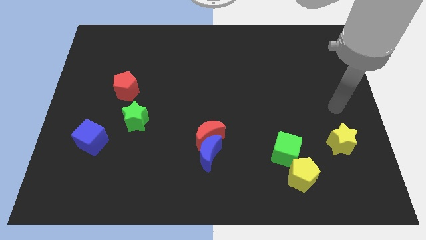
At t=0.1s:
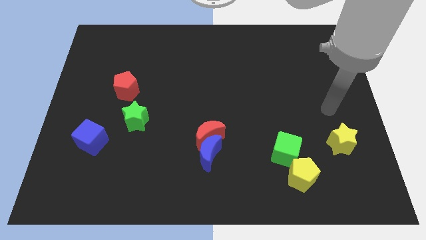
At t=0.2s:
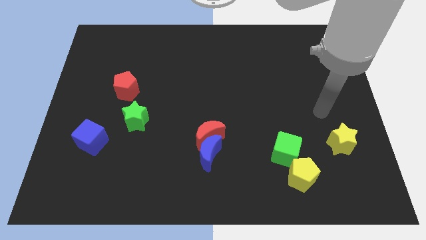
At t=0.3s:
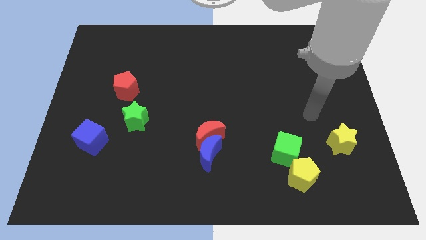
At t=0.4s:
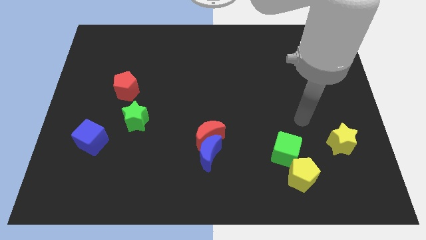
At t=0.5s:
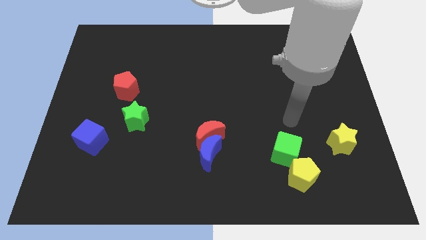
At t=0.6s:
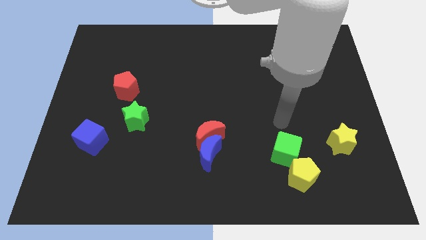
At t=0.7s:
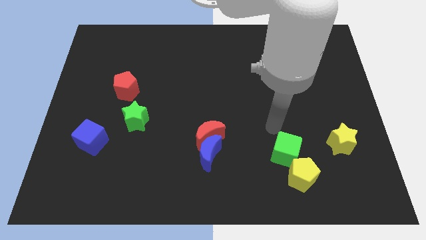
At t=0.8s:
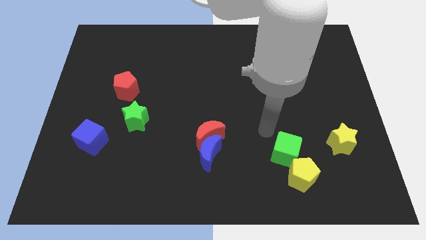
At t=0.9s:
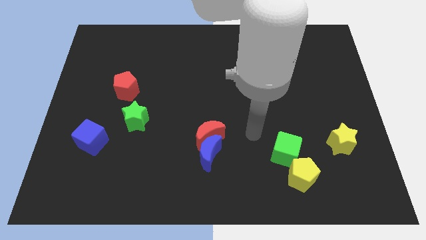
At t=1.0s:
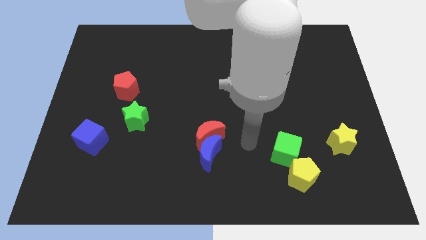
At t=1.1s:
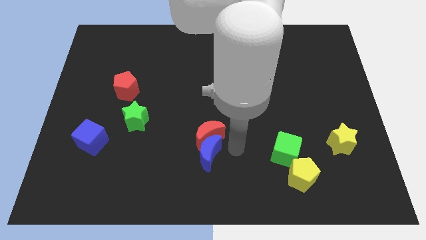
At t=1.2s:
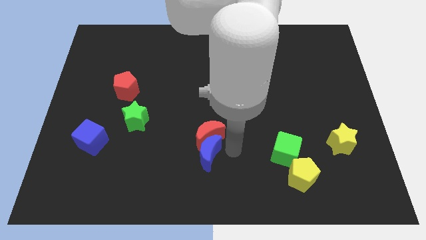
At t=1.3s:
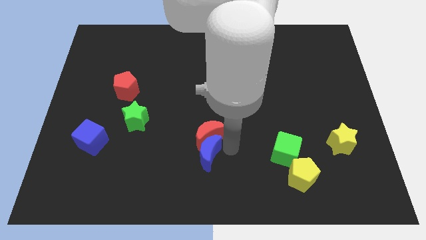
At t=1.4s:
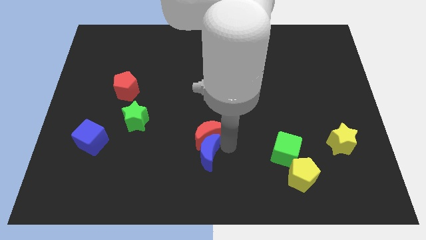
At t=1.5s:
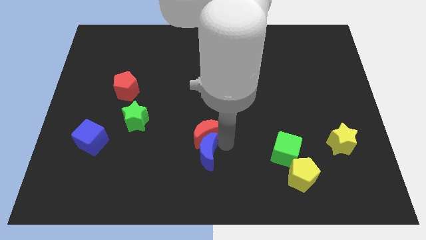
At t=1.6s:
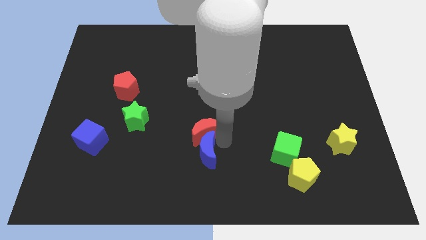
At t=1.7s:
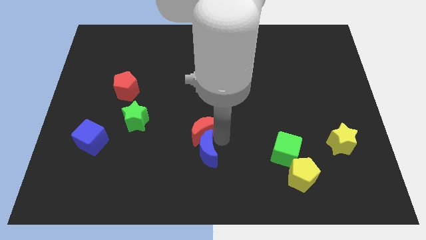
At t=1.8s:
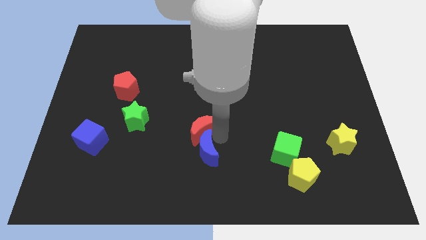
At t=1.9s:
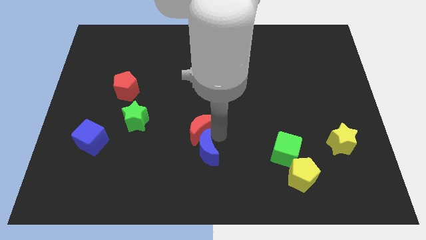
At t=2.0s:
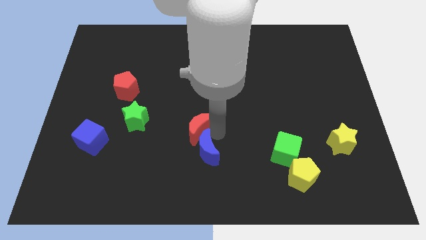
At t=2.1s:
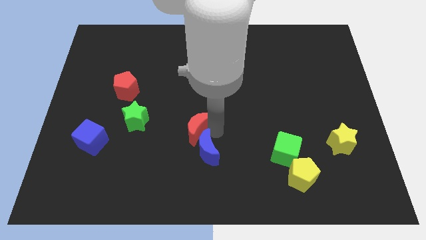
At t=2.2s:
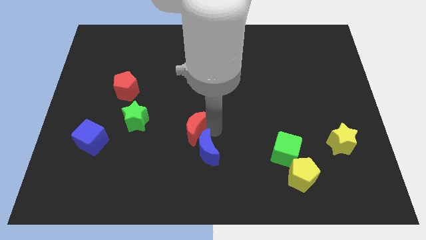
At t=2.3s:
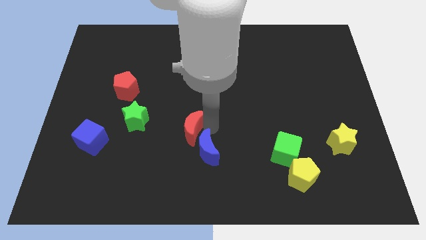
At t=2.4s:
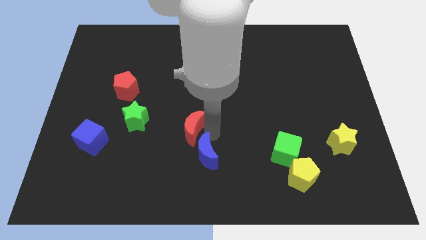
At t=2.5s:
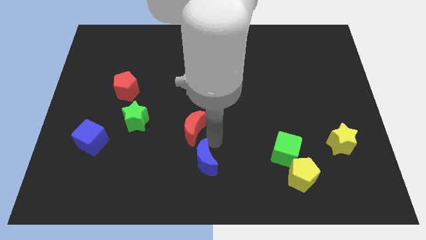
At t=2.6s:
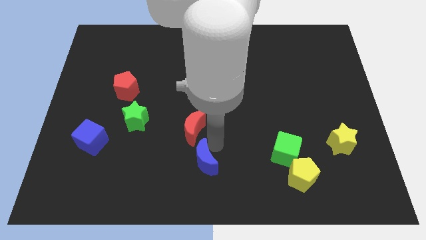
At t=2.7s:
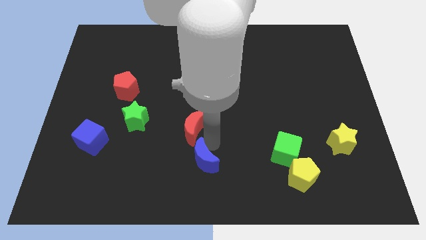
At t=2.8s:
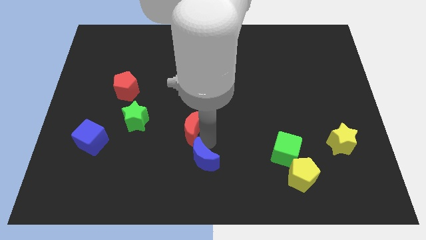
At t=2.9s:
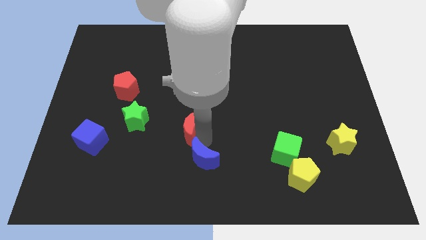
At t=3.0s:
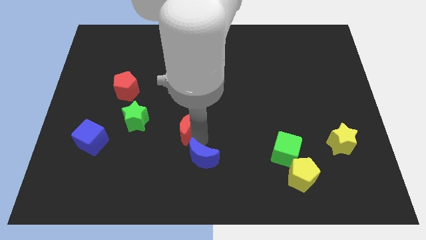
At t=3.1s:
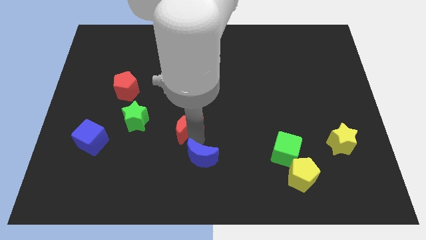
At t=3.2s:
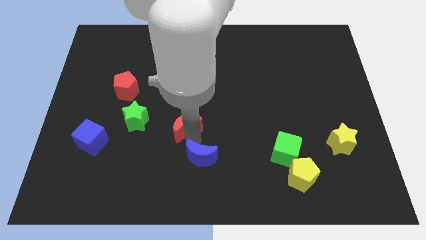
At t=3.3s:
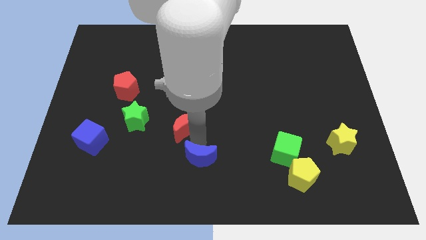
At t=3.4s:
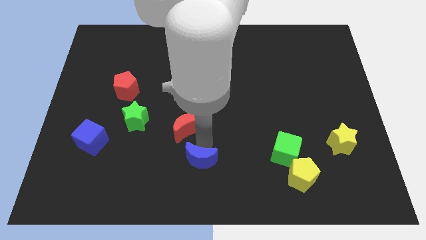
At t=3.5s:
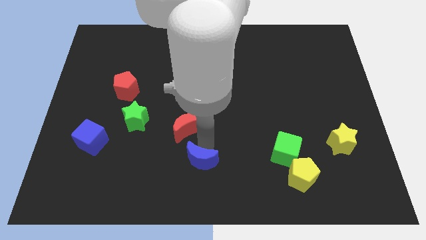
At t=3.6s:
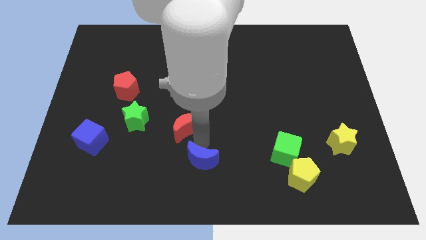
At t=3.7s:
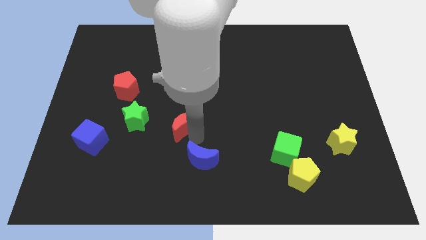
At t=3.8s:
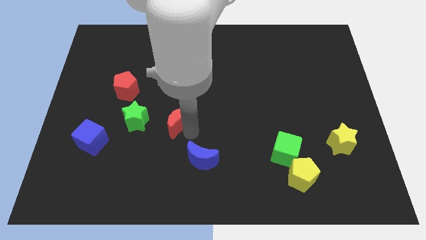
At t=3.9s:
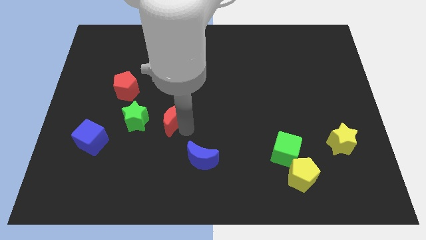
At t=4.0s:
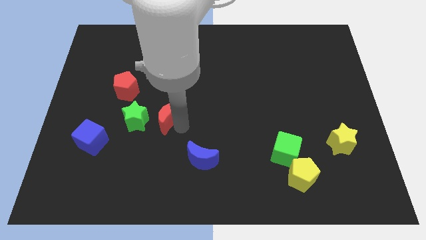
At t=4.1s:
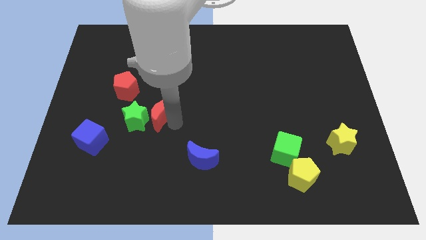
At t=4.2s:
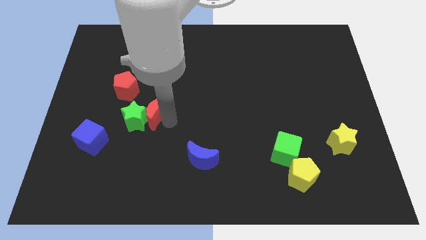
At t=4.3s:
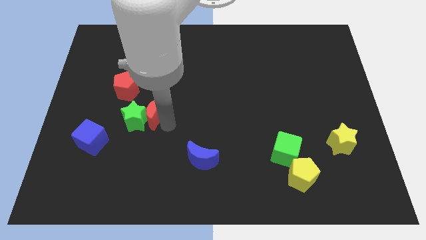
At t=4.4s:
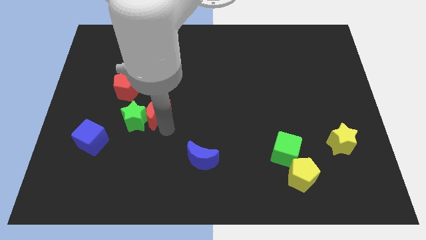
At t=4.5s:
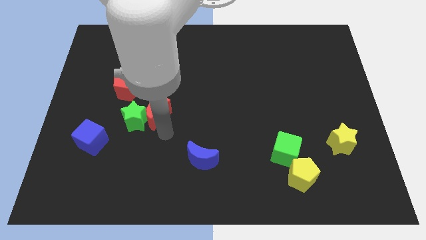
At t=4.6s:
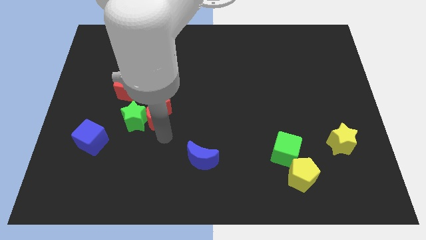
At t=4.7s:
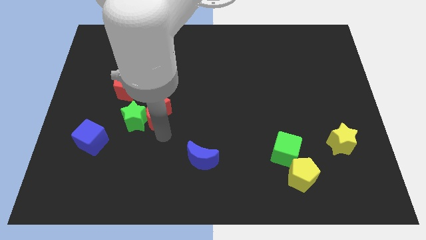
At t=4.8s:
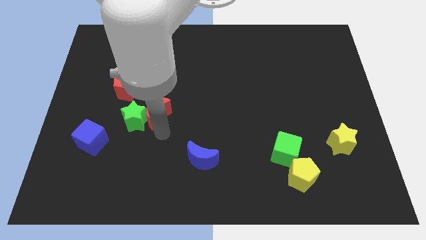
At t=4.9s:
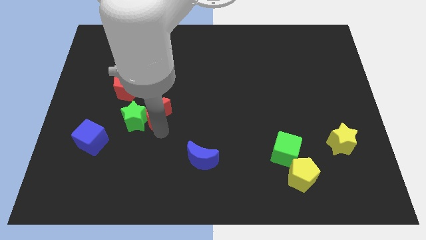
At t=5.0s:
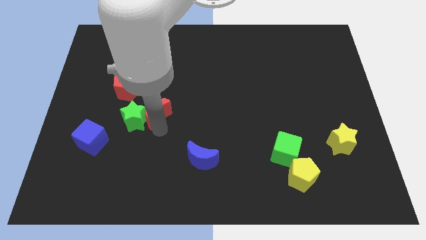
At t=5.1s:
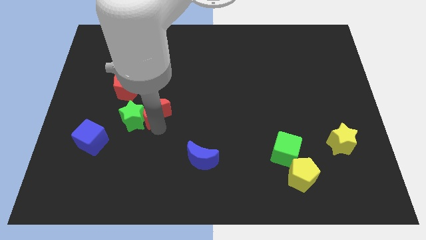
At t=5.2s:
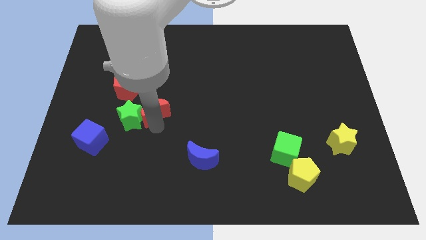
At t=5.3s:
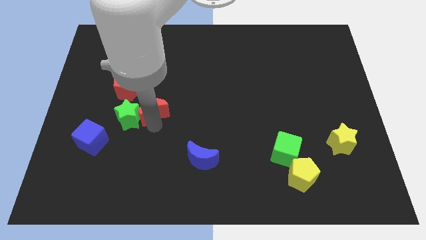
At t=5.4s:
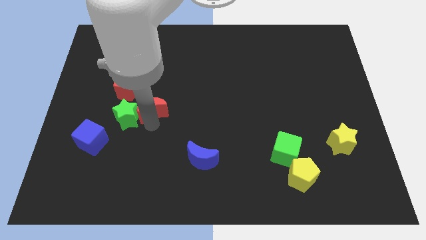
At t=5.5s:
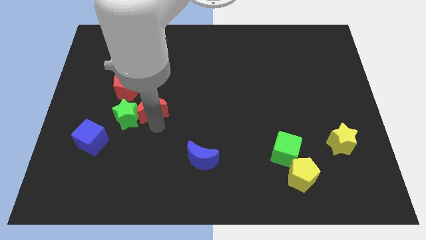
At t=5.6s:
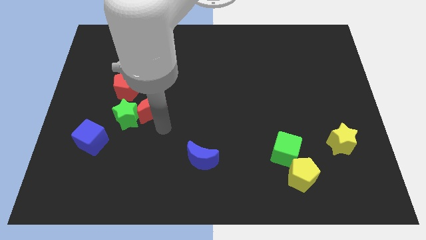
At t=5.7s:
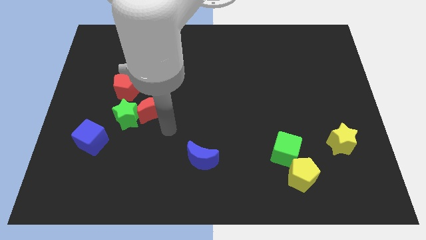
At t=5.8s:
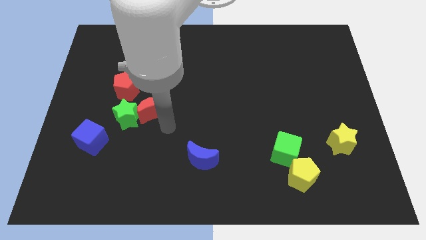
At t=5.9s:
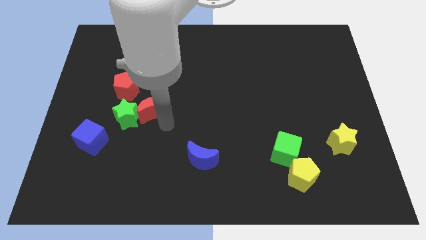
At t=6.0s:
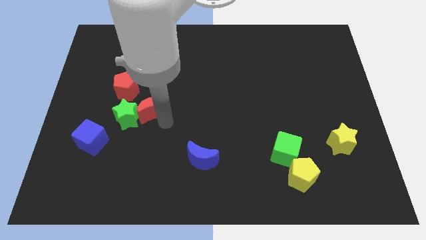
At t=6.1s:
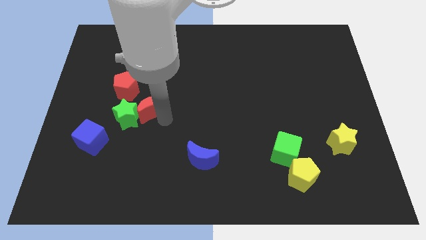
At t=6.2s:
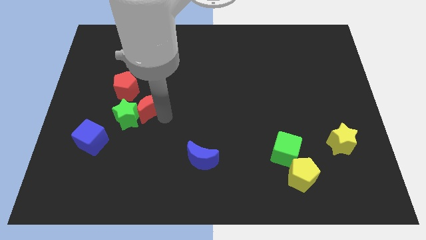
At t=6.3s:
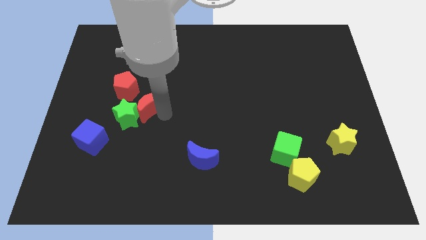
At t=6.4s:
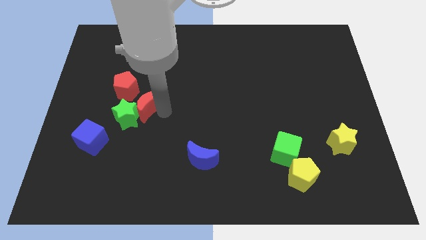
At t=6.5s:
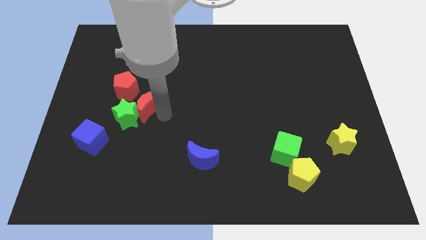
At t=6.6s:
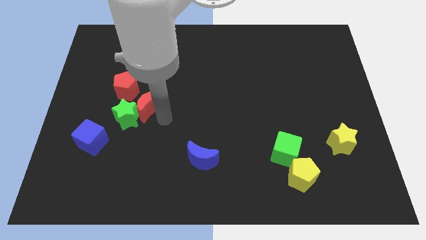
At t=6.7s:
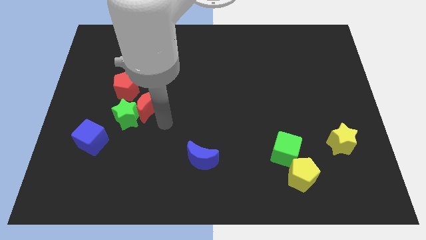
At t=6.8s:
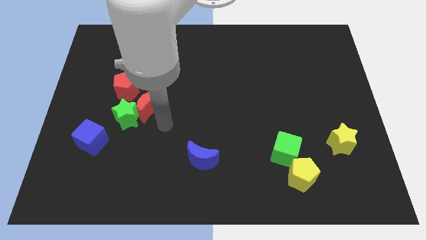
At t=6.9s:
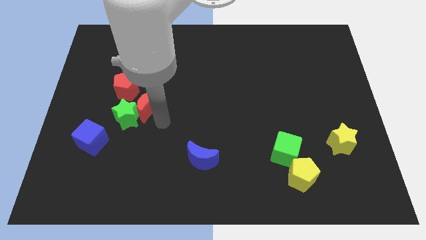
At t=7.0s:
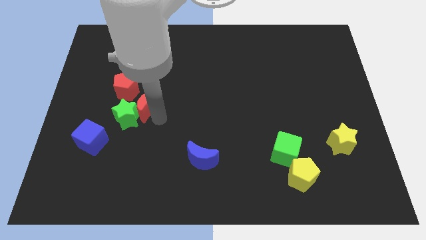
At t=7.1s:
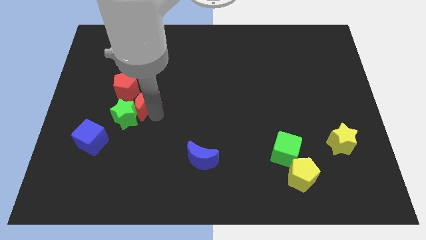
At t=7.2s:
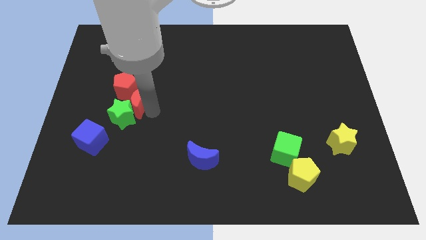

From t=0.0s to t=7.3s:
push the red moon to the red pentagon

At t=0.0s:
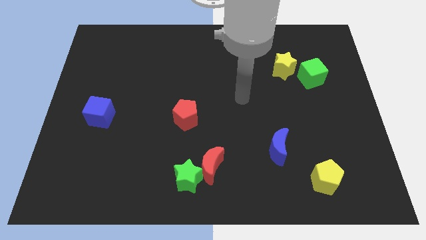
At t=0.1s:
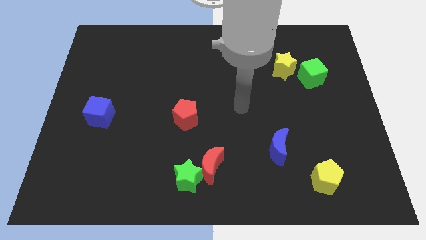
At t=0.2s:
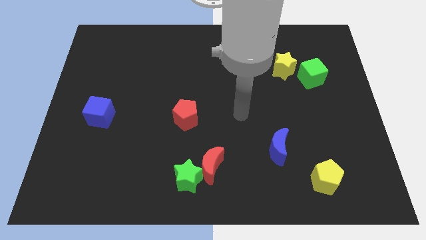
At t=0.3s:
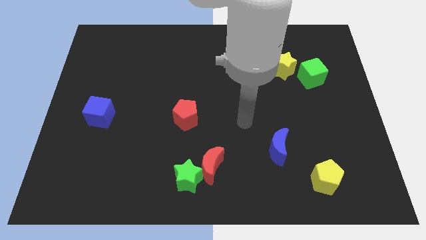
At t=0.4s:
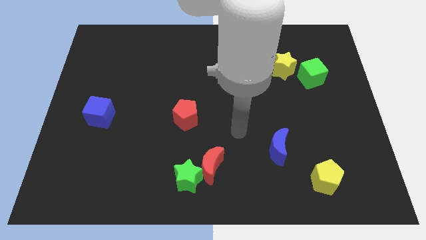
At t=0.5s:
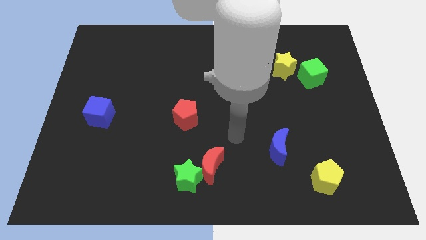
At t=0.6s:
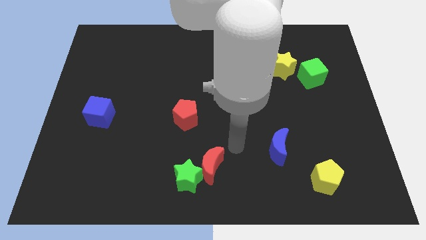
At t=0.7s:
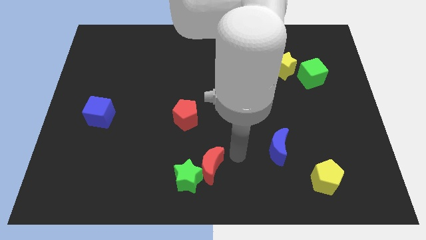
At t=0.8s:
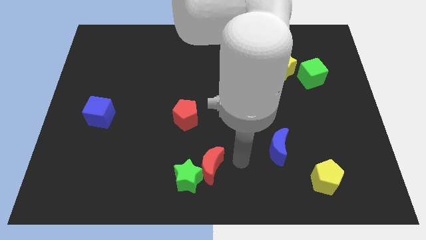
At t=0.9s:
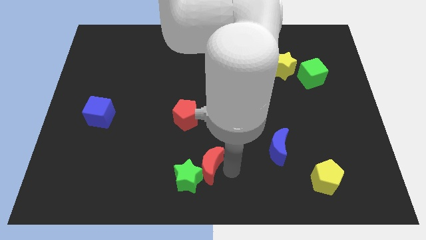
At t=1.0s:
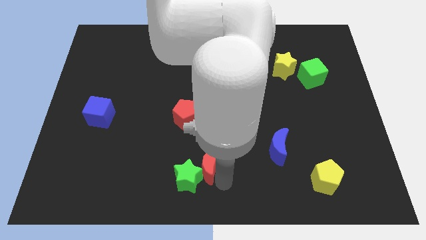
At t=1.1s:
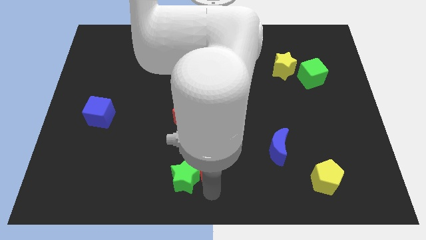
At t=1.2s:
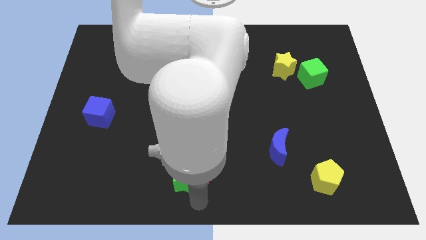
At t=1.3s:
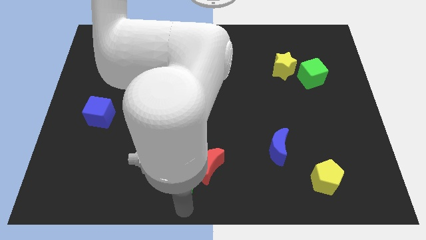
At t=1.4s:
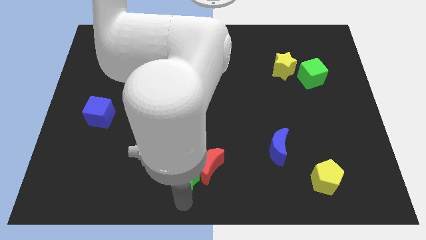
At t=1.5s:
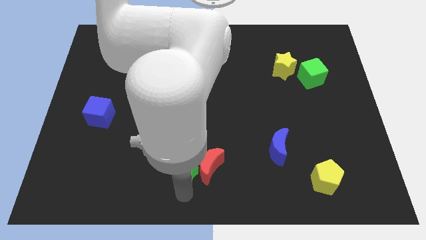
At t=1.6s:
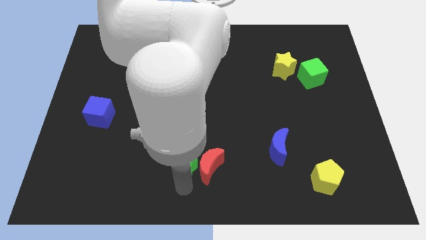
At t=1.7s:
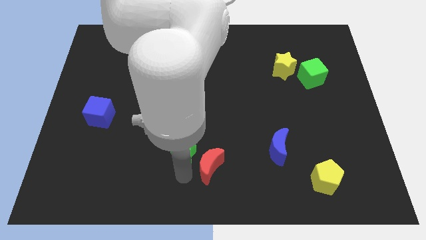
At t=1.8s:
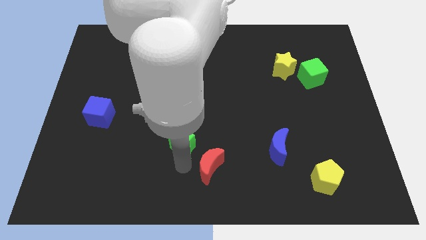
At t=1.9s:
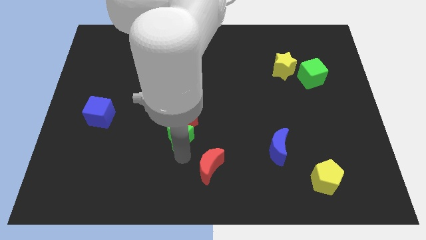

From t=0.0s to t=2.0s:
move the green star close to the red pentagon
